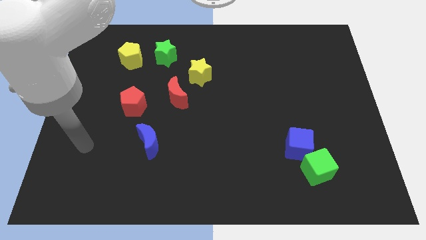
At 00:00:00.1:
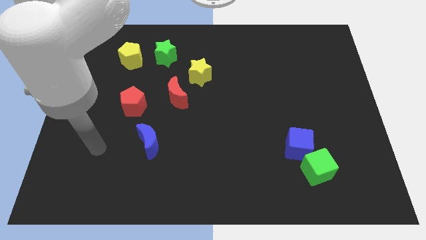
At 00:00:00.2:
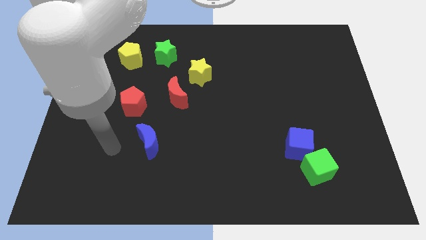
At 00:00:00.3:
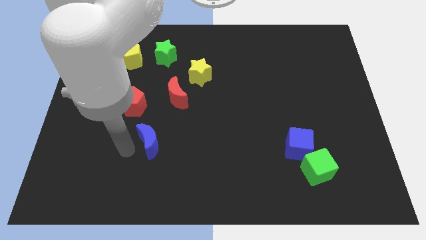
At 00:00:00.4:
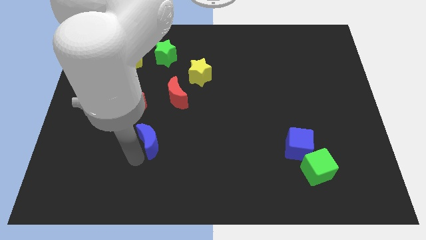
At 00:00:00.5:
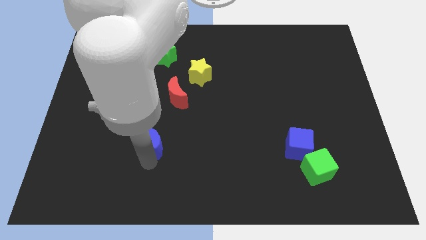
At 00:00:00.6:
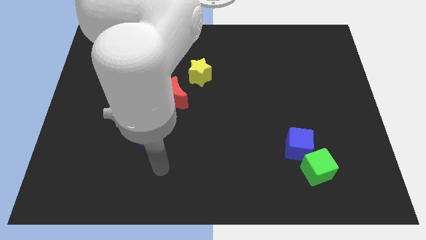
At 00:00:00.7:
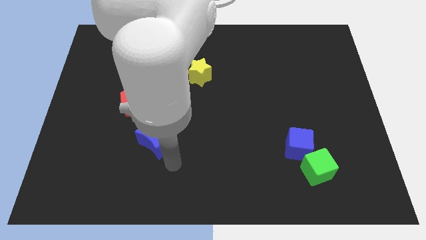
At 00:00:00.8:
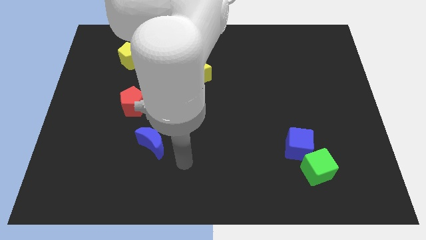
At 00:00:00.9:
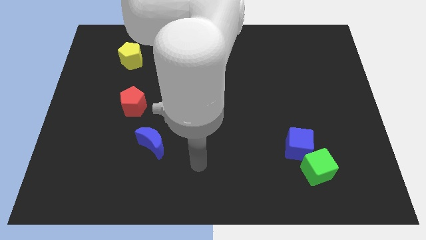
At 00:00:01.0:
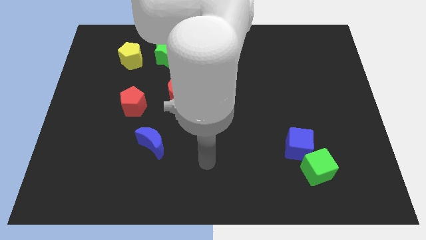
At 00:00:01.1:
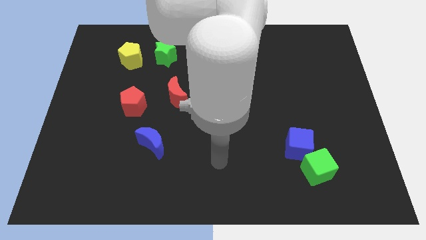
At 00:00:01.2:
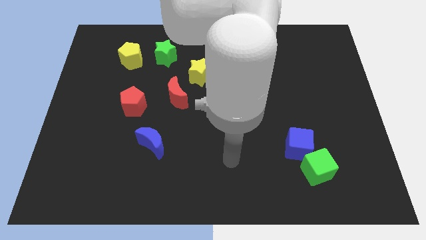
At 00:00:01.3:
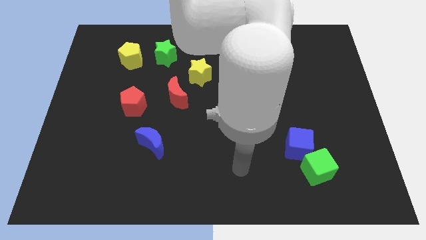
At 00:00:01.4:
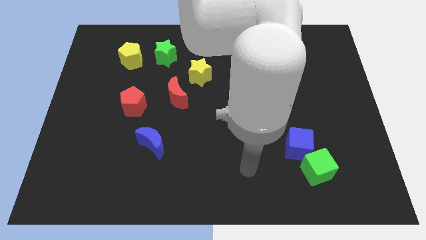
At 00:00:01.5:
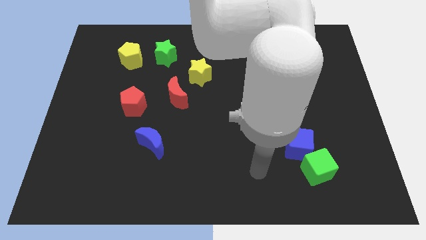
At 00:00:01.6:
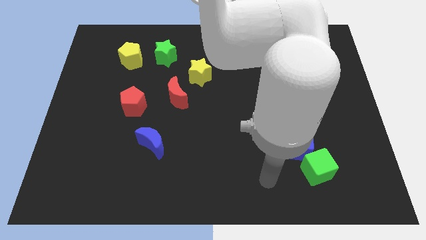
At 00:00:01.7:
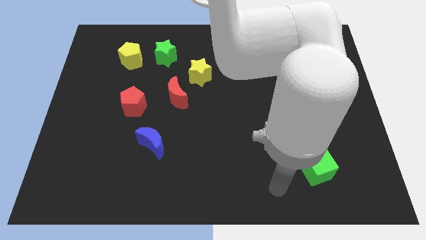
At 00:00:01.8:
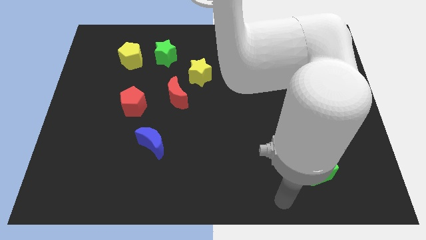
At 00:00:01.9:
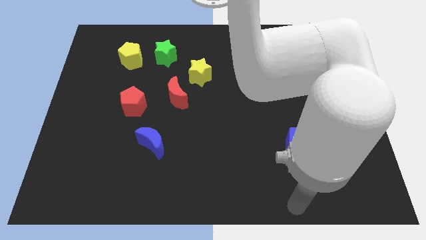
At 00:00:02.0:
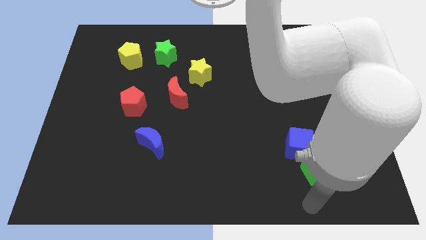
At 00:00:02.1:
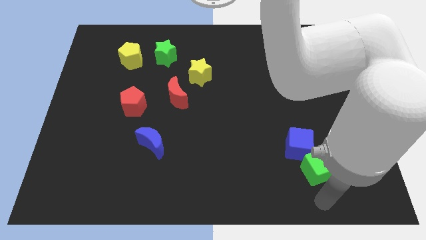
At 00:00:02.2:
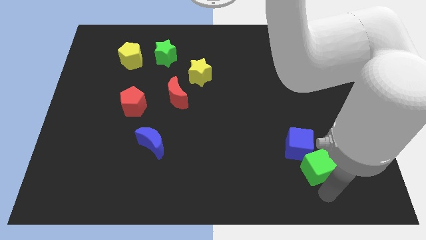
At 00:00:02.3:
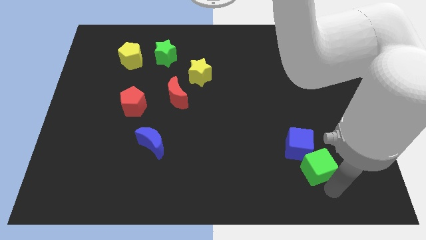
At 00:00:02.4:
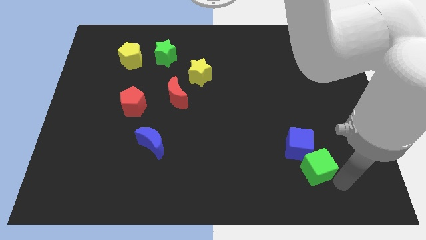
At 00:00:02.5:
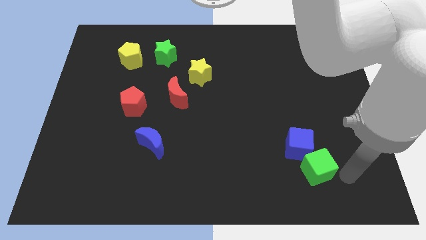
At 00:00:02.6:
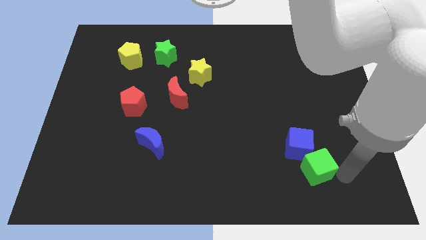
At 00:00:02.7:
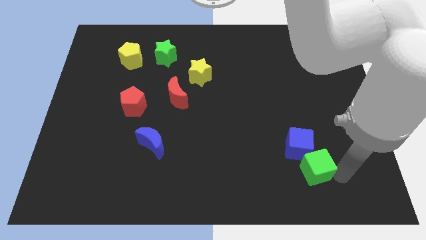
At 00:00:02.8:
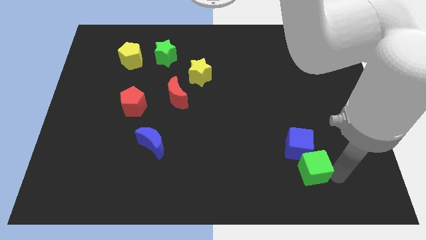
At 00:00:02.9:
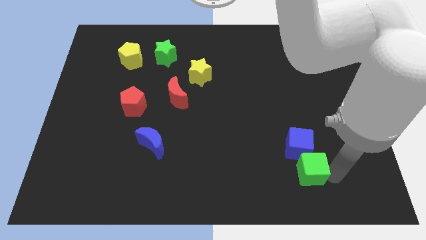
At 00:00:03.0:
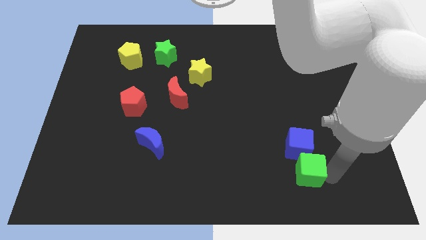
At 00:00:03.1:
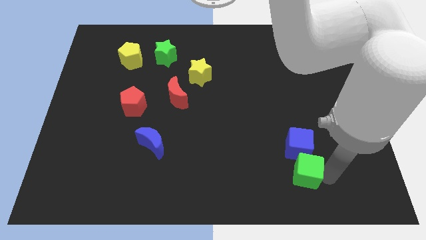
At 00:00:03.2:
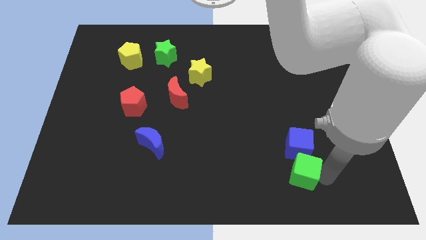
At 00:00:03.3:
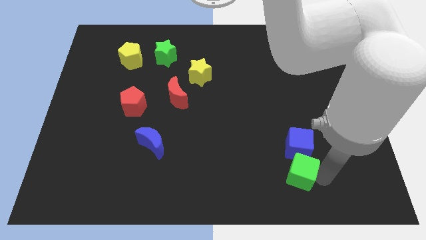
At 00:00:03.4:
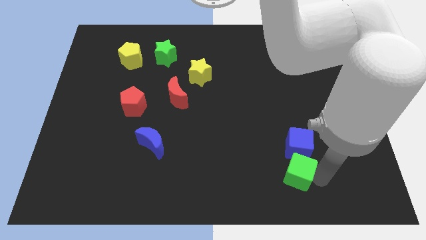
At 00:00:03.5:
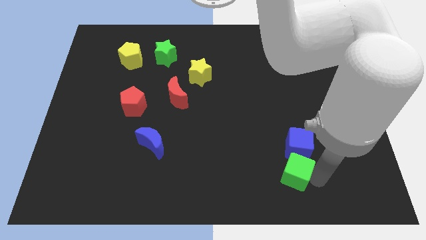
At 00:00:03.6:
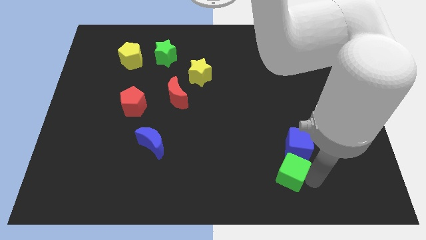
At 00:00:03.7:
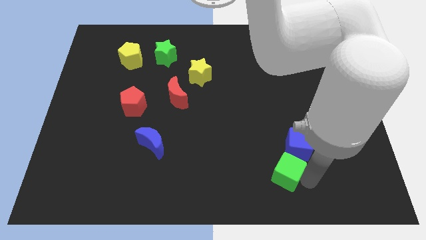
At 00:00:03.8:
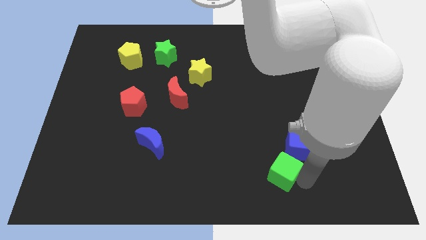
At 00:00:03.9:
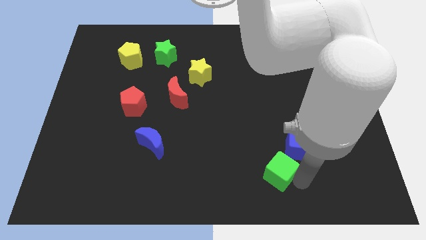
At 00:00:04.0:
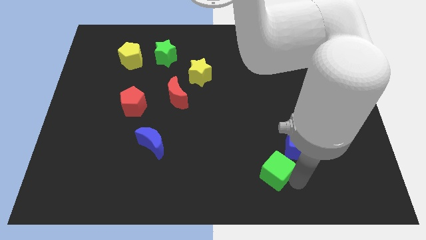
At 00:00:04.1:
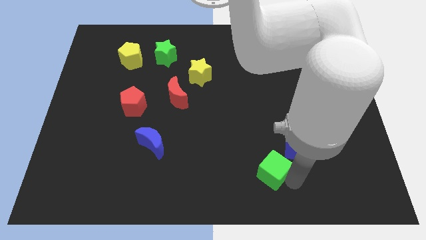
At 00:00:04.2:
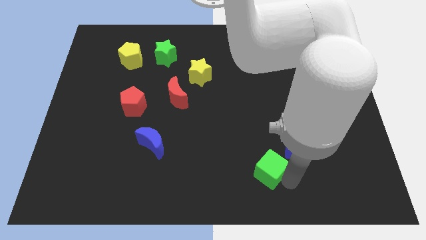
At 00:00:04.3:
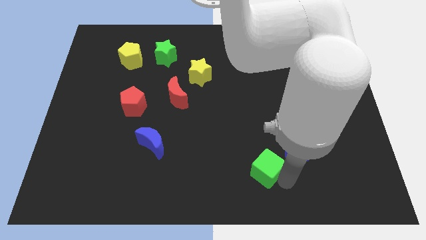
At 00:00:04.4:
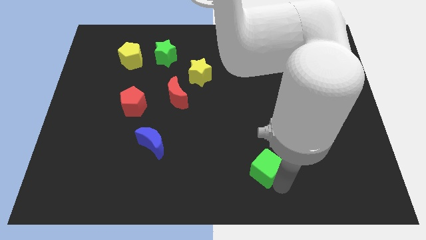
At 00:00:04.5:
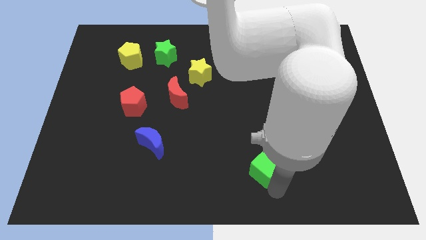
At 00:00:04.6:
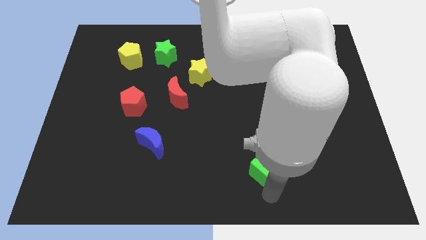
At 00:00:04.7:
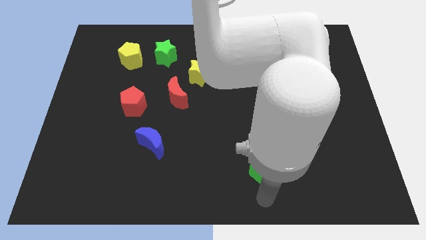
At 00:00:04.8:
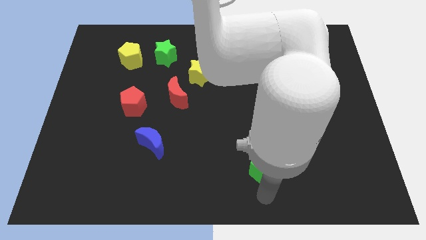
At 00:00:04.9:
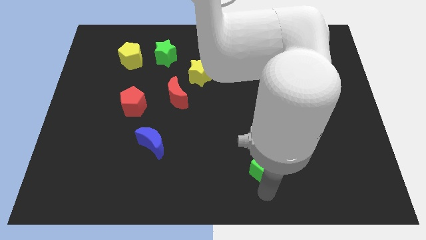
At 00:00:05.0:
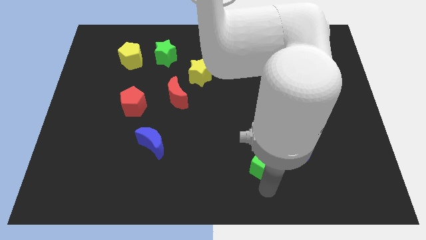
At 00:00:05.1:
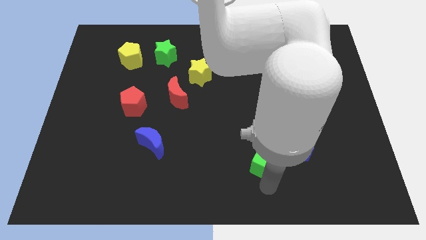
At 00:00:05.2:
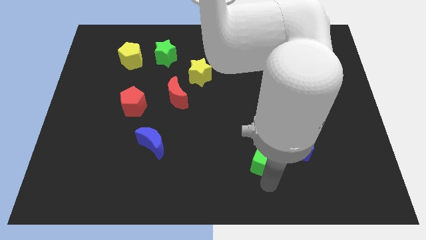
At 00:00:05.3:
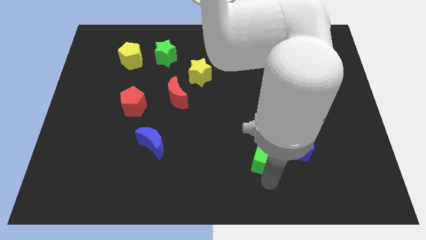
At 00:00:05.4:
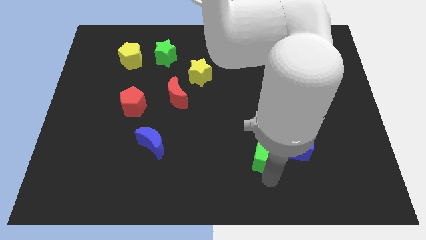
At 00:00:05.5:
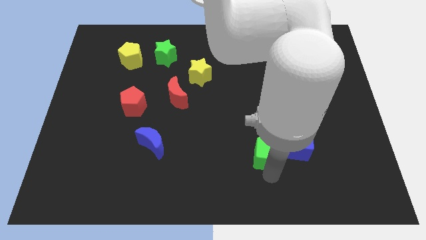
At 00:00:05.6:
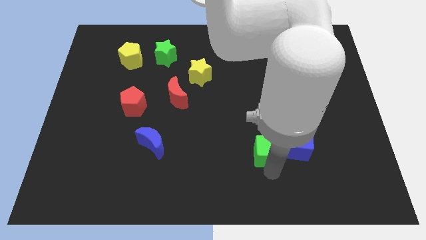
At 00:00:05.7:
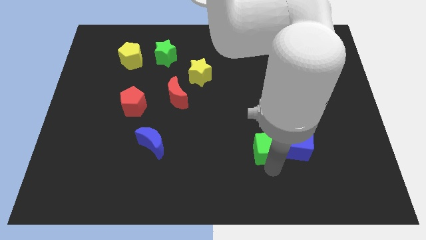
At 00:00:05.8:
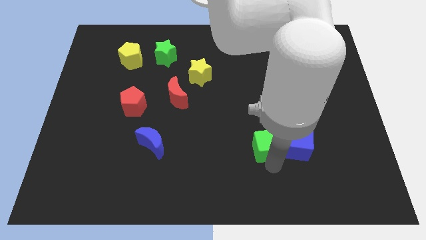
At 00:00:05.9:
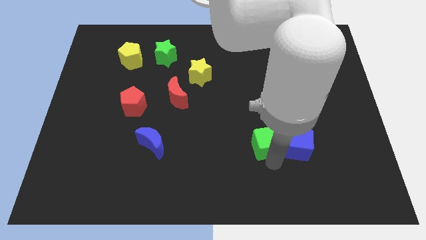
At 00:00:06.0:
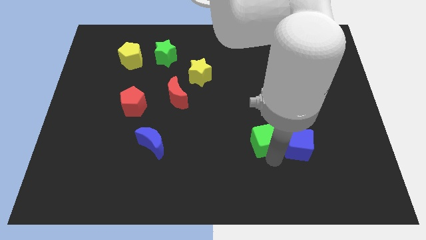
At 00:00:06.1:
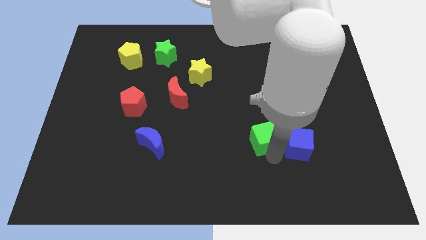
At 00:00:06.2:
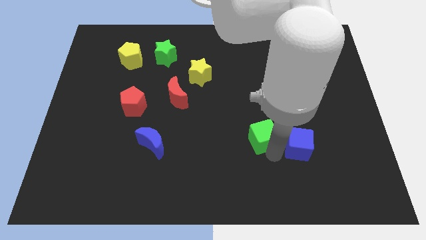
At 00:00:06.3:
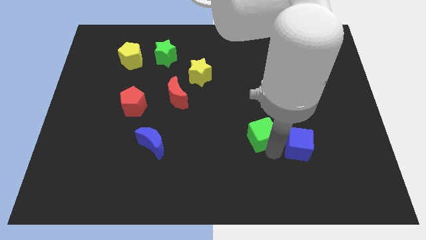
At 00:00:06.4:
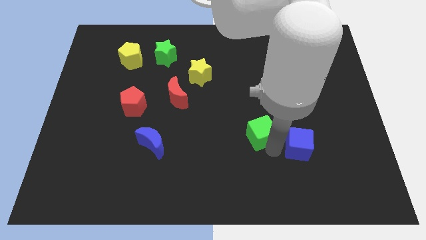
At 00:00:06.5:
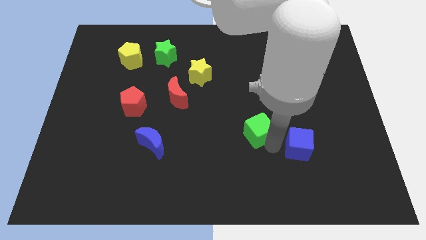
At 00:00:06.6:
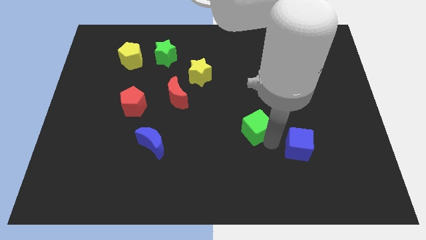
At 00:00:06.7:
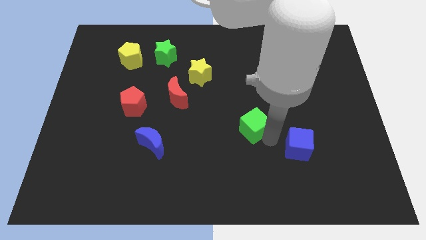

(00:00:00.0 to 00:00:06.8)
push the green cube to the center of the board

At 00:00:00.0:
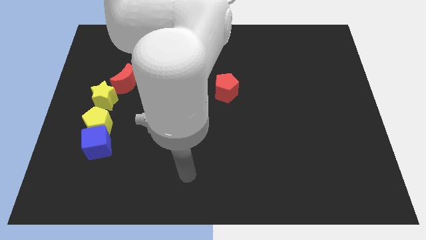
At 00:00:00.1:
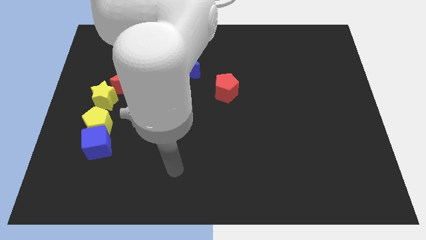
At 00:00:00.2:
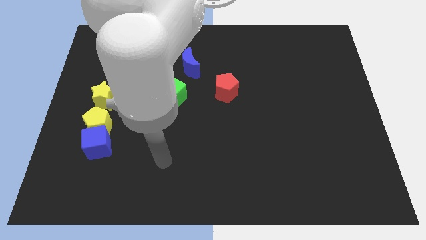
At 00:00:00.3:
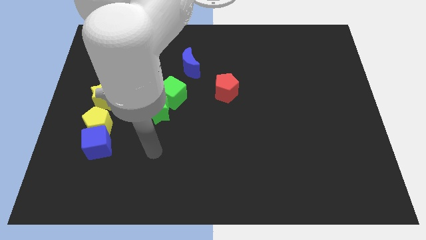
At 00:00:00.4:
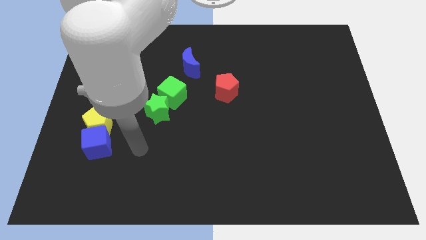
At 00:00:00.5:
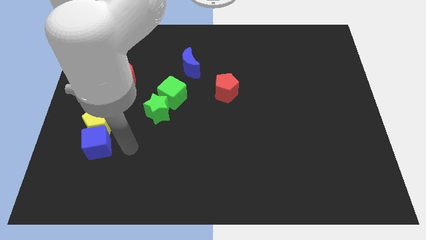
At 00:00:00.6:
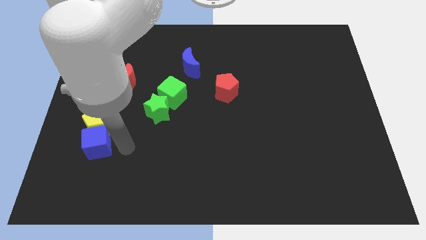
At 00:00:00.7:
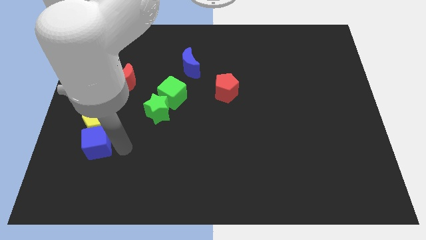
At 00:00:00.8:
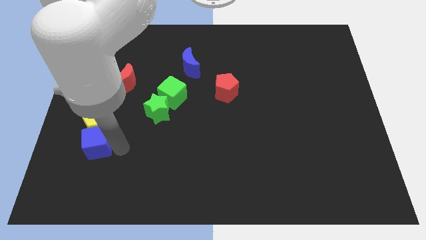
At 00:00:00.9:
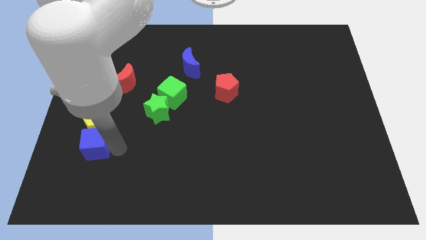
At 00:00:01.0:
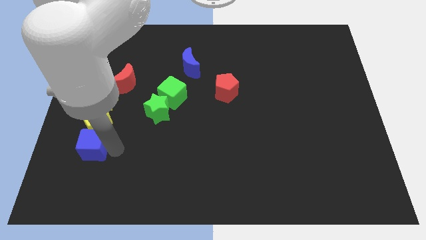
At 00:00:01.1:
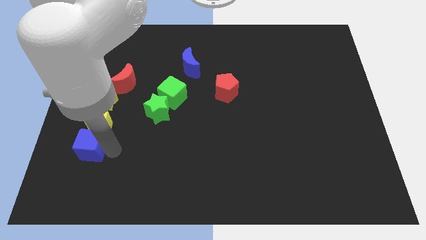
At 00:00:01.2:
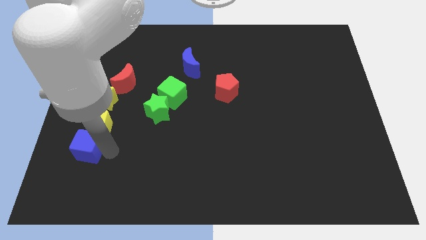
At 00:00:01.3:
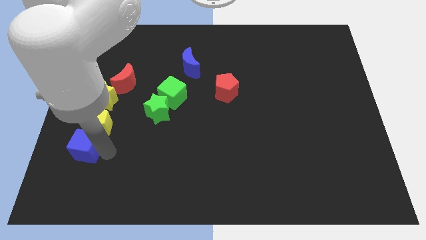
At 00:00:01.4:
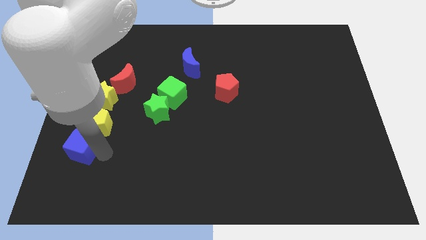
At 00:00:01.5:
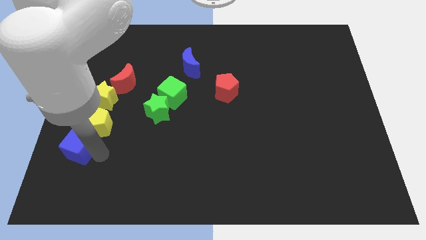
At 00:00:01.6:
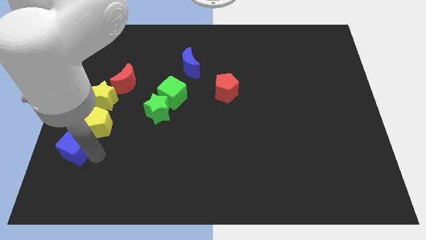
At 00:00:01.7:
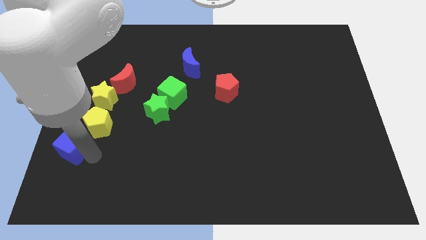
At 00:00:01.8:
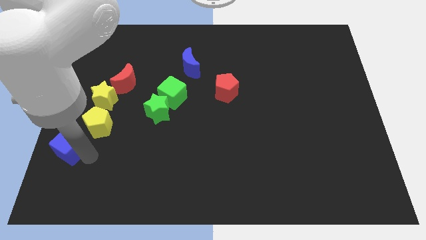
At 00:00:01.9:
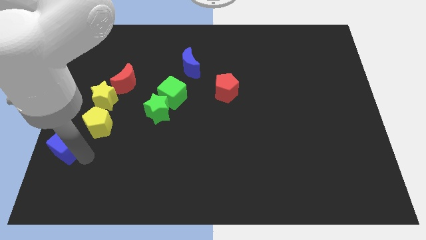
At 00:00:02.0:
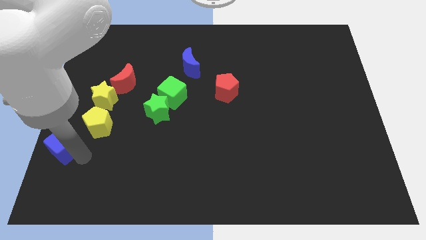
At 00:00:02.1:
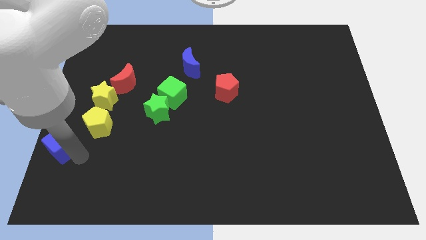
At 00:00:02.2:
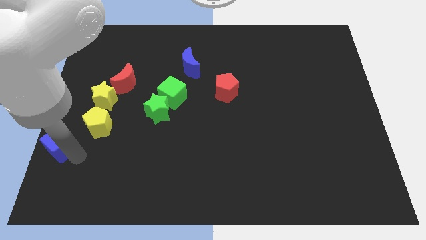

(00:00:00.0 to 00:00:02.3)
slide the blue cube to the center left
